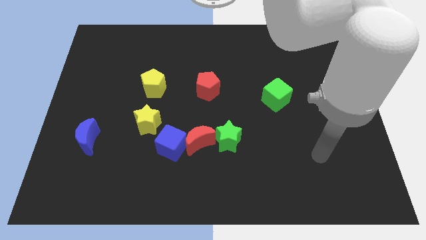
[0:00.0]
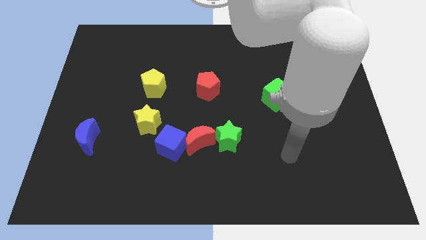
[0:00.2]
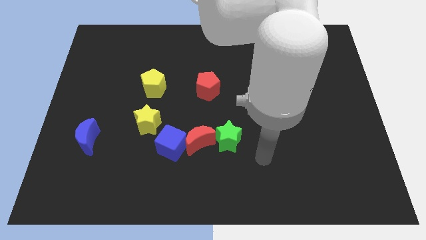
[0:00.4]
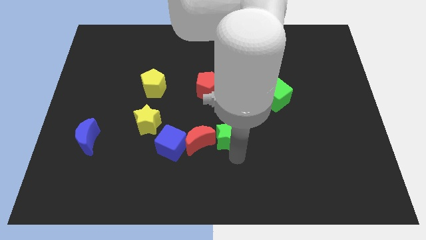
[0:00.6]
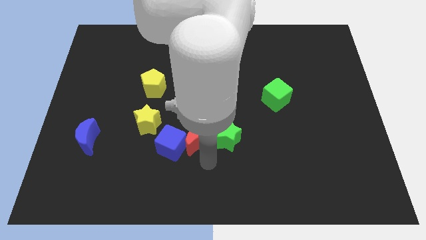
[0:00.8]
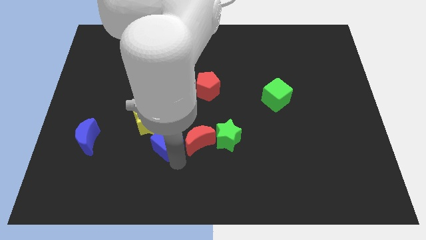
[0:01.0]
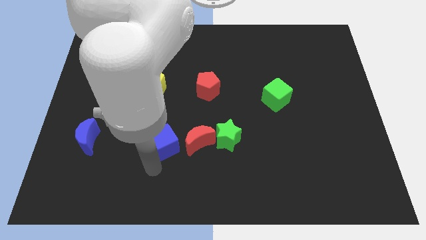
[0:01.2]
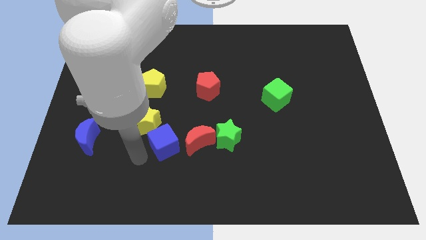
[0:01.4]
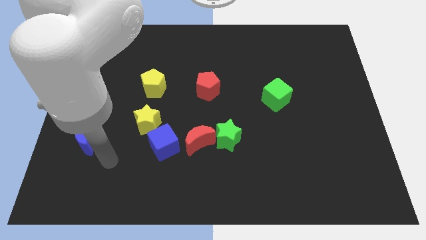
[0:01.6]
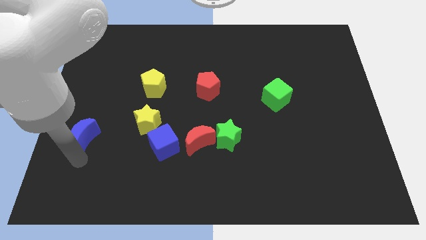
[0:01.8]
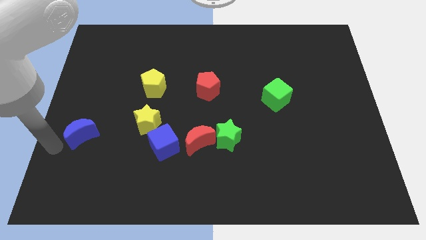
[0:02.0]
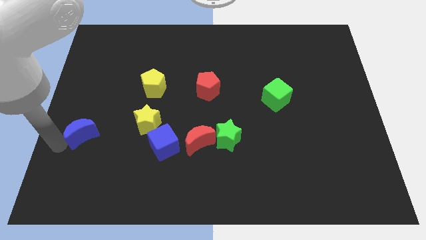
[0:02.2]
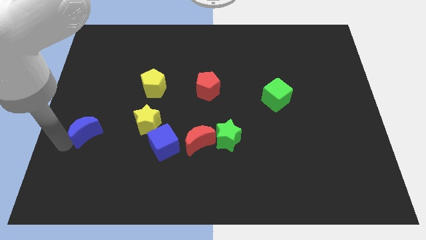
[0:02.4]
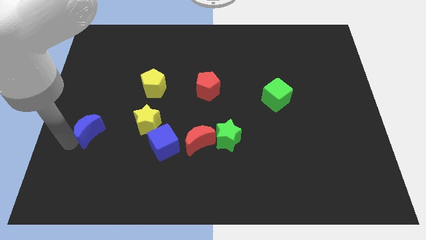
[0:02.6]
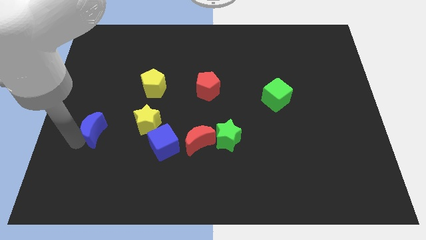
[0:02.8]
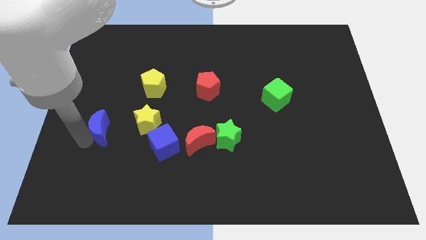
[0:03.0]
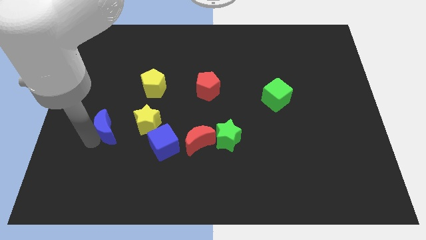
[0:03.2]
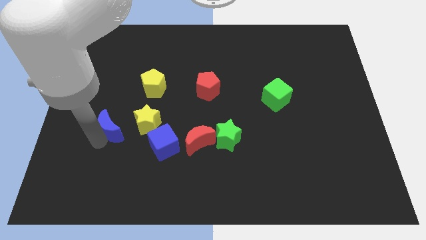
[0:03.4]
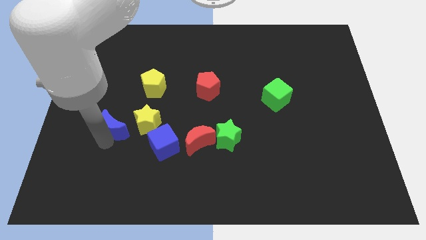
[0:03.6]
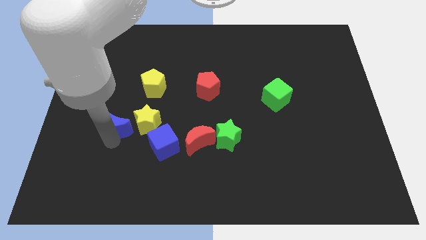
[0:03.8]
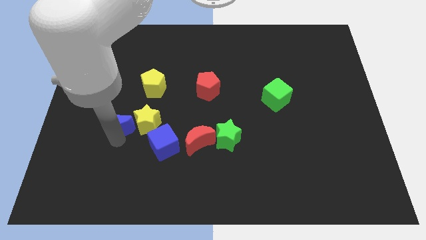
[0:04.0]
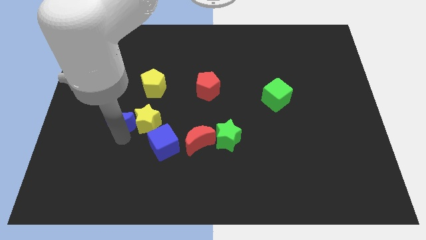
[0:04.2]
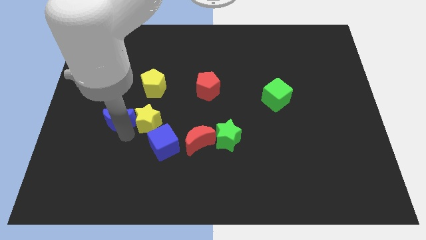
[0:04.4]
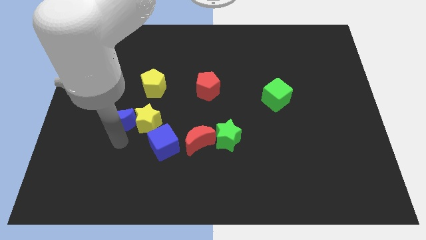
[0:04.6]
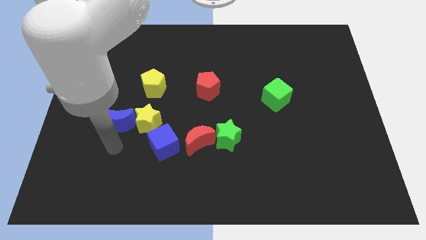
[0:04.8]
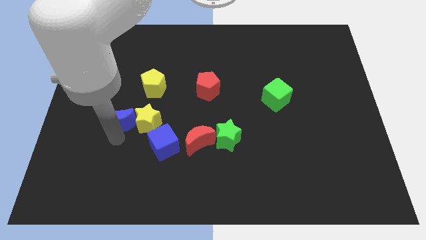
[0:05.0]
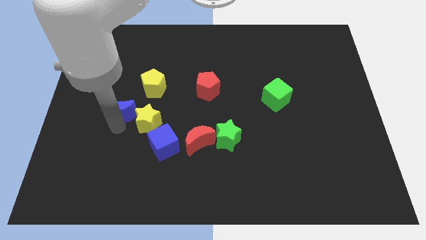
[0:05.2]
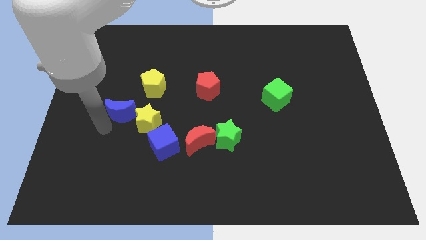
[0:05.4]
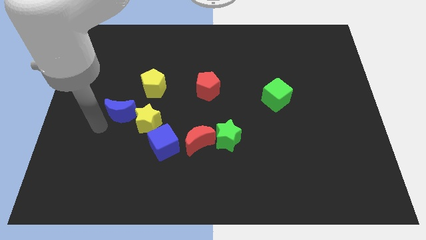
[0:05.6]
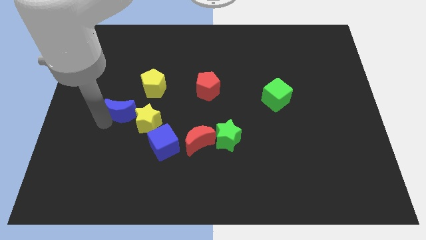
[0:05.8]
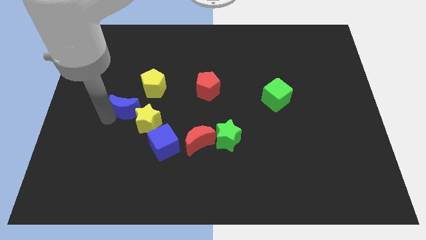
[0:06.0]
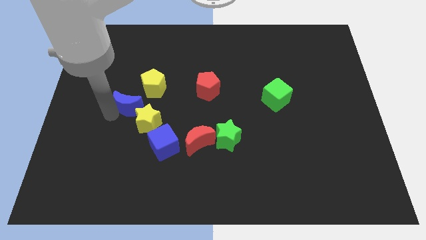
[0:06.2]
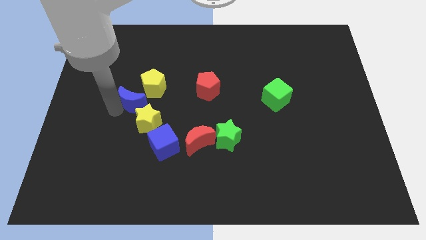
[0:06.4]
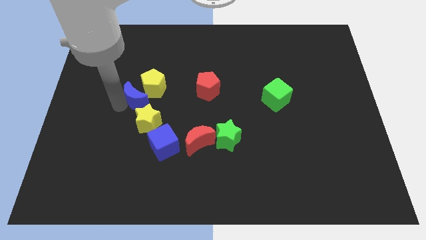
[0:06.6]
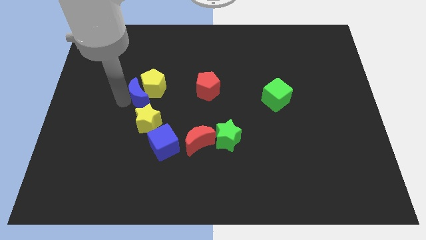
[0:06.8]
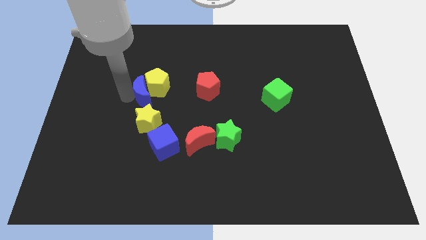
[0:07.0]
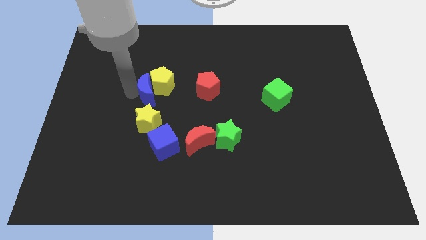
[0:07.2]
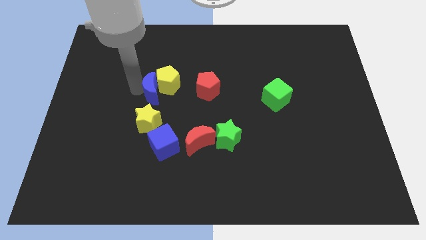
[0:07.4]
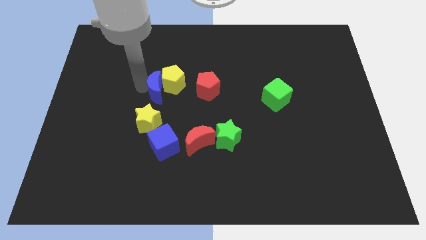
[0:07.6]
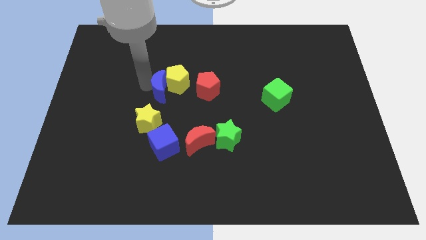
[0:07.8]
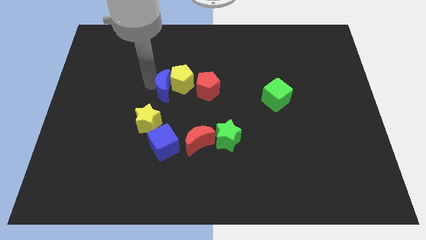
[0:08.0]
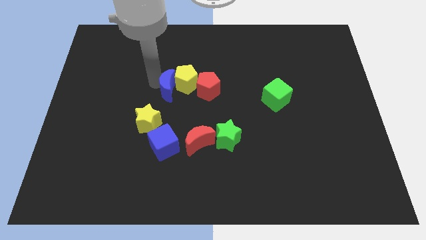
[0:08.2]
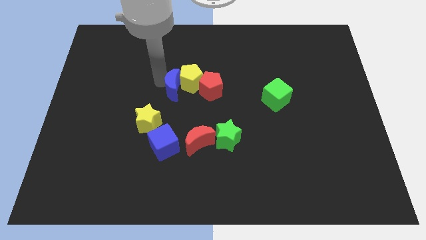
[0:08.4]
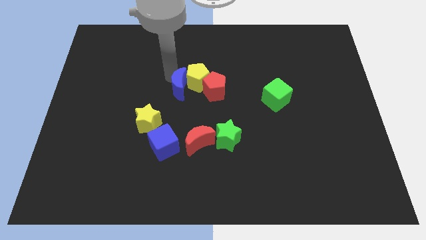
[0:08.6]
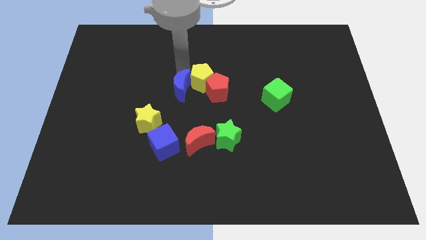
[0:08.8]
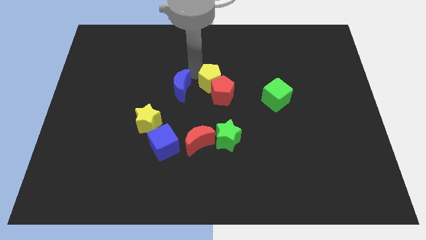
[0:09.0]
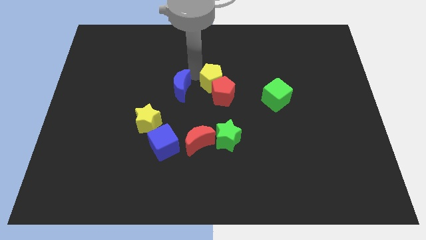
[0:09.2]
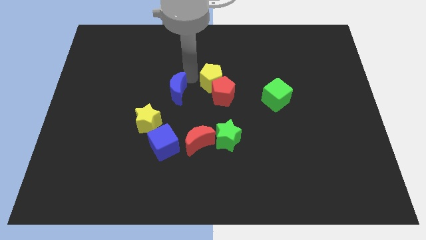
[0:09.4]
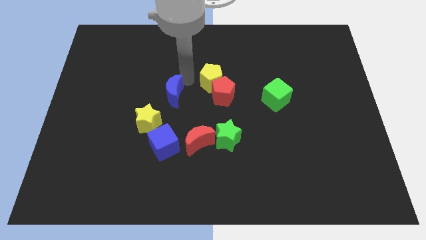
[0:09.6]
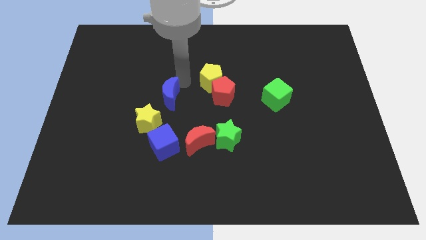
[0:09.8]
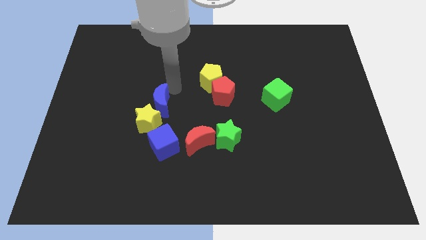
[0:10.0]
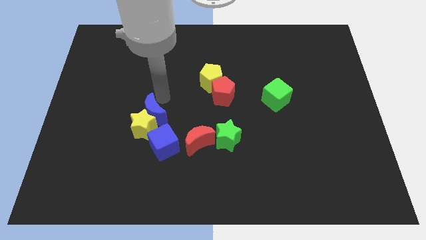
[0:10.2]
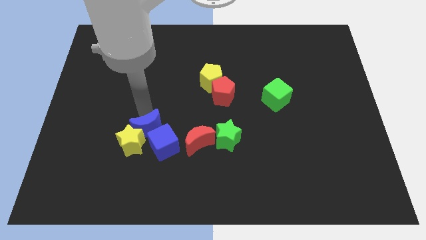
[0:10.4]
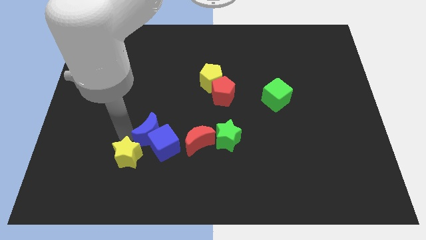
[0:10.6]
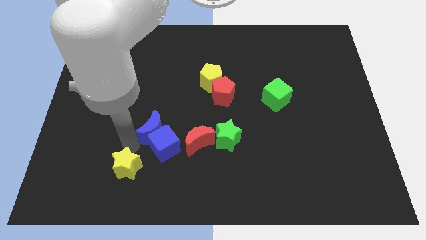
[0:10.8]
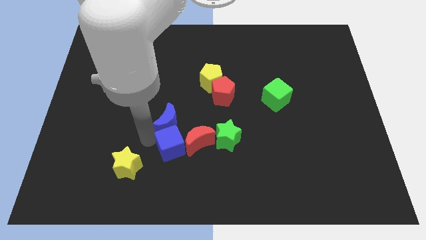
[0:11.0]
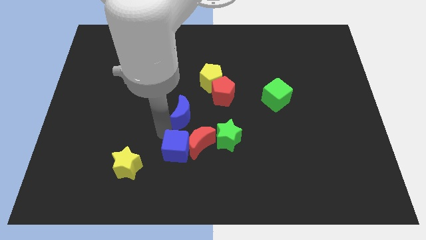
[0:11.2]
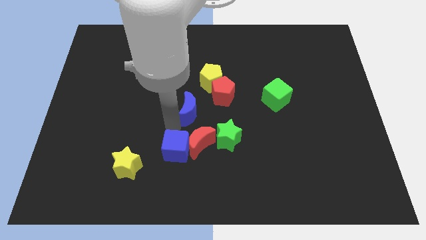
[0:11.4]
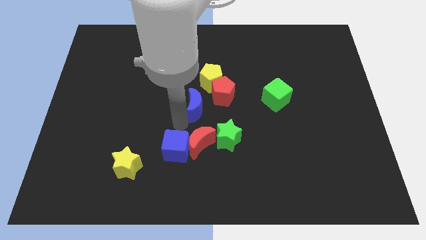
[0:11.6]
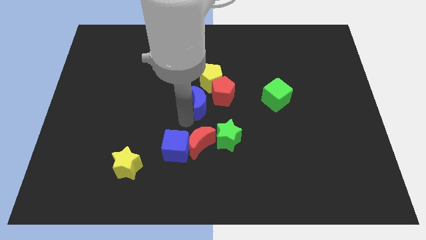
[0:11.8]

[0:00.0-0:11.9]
move the blue moon next to the red pentagon

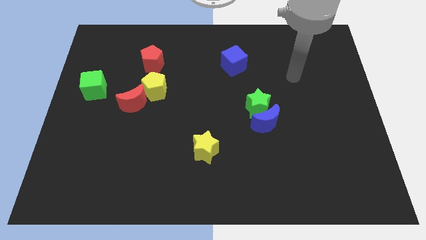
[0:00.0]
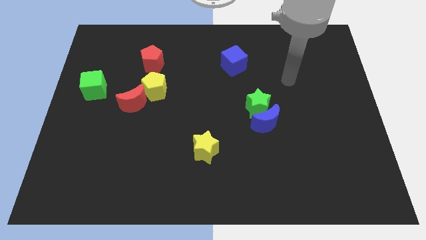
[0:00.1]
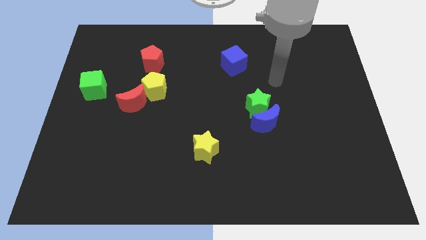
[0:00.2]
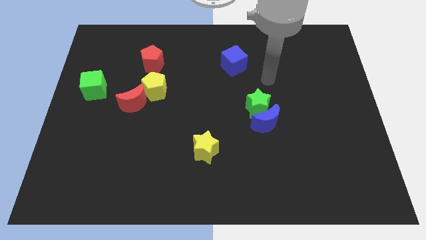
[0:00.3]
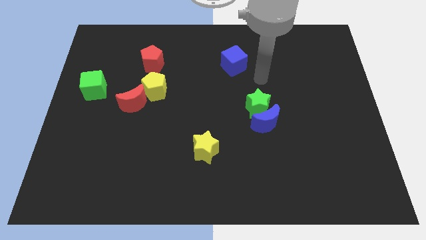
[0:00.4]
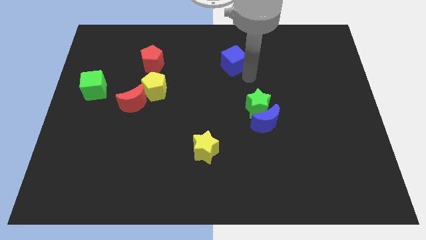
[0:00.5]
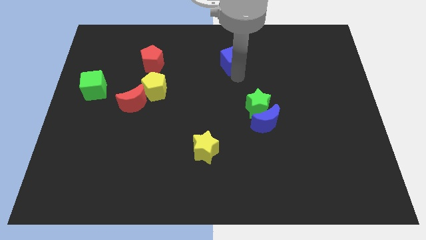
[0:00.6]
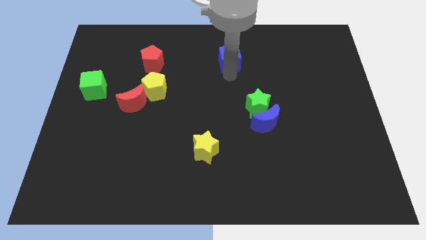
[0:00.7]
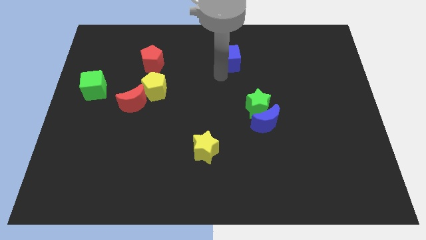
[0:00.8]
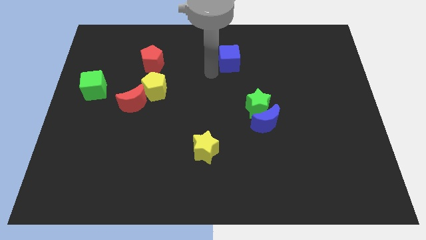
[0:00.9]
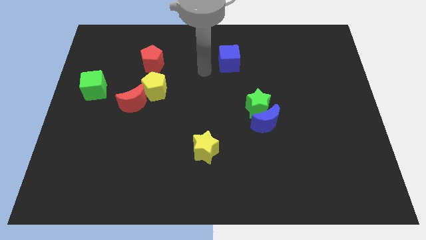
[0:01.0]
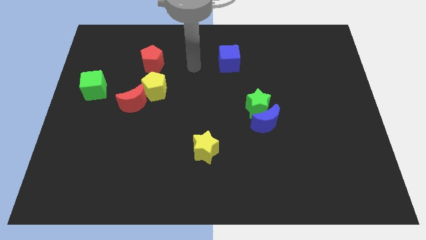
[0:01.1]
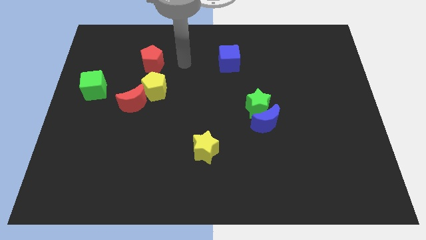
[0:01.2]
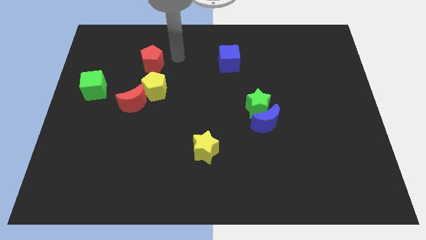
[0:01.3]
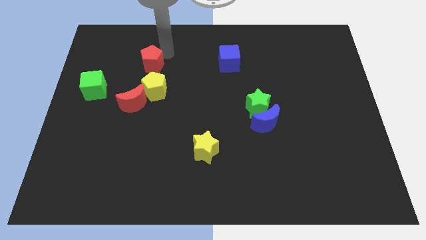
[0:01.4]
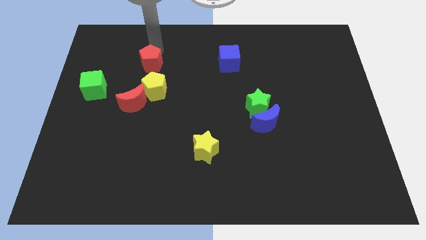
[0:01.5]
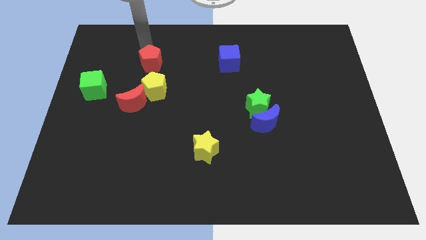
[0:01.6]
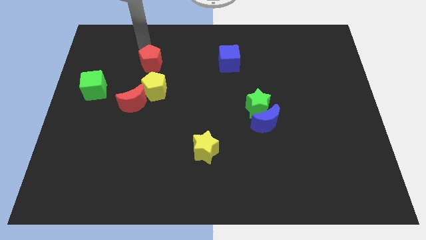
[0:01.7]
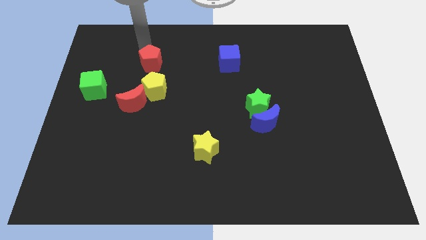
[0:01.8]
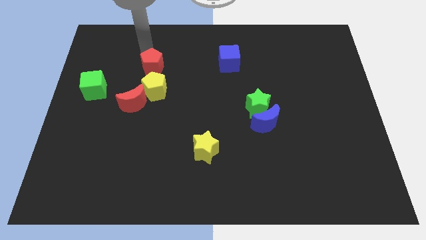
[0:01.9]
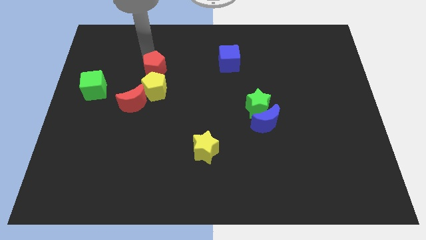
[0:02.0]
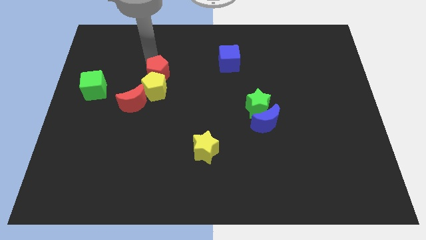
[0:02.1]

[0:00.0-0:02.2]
put the red pentagon next to the yellow pentagon
